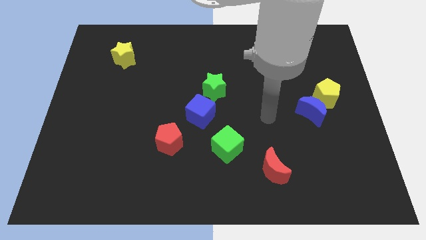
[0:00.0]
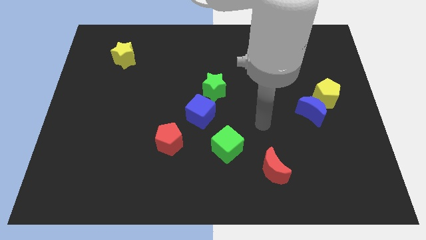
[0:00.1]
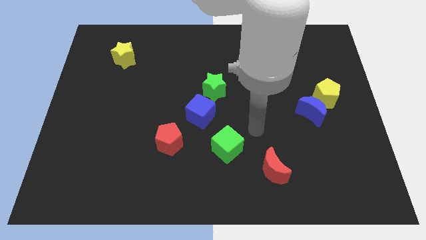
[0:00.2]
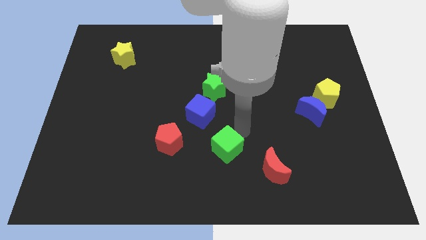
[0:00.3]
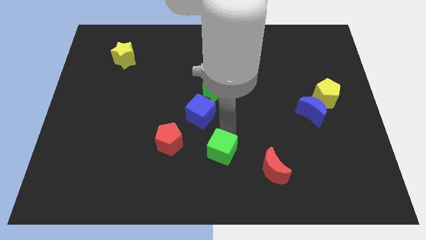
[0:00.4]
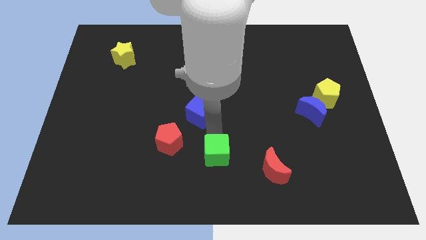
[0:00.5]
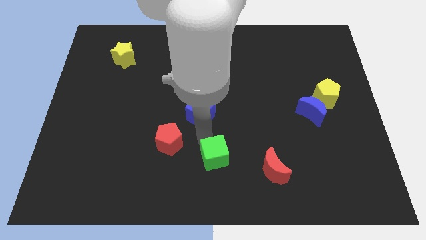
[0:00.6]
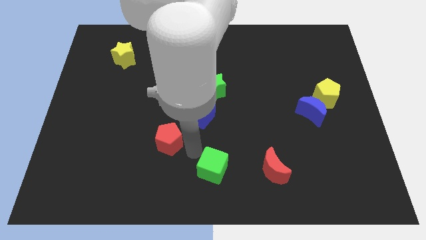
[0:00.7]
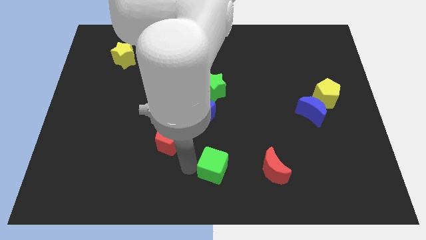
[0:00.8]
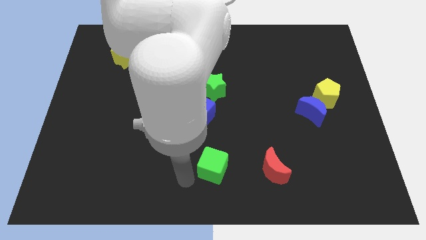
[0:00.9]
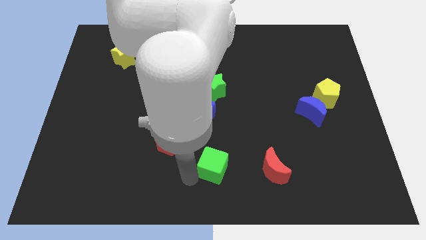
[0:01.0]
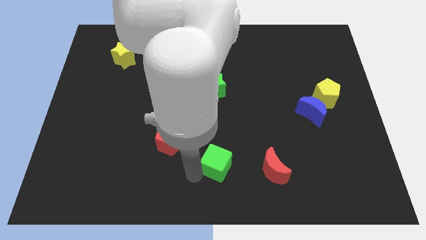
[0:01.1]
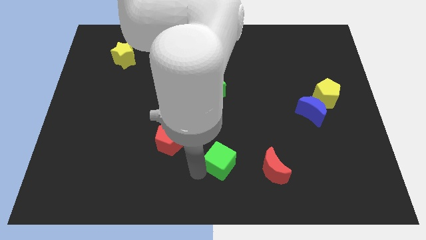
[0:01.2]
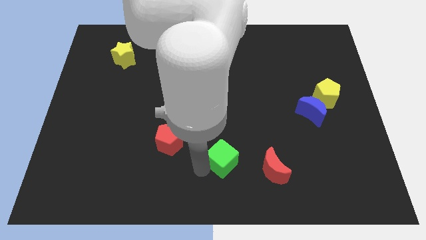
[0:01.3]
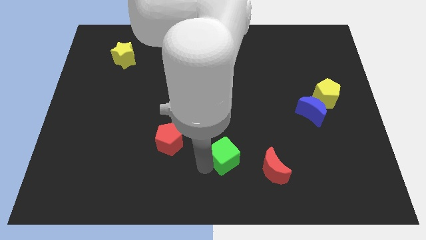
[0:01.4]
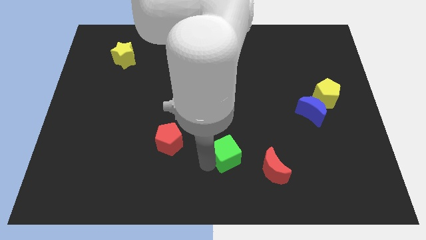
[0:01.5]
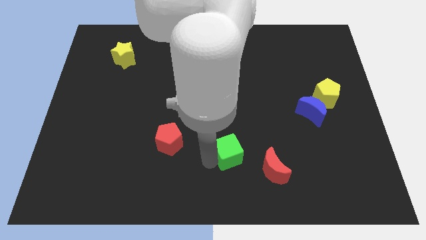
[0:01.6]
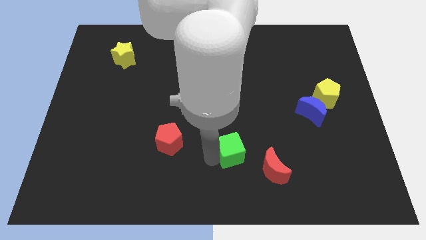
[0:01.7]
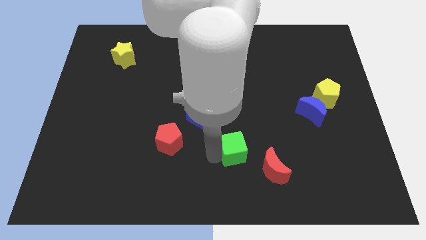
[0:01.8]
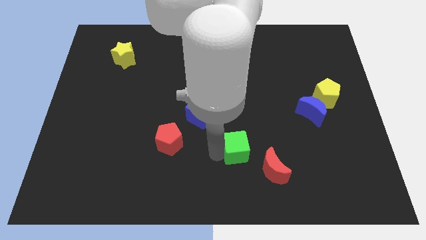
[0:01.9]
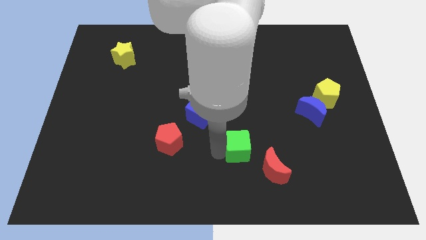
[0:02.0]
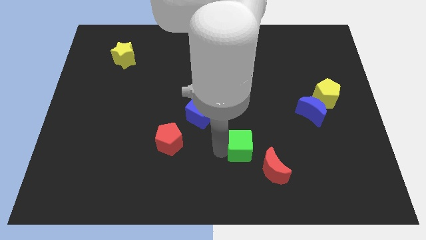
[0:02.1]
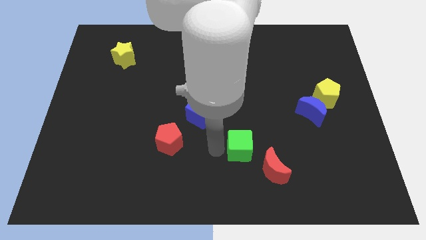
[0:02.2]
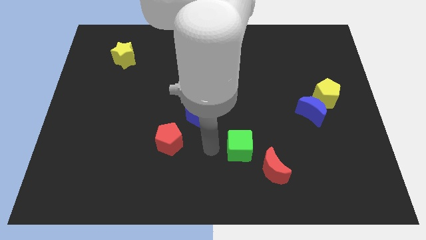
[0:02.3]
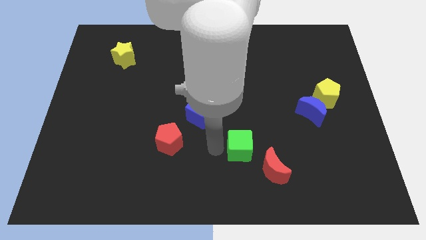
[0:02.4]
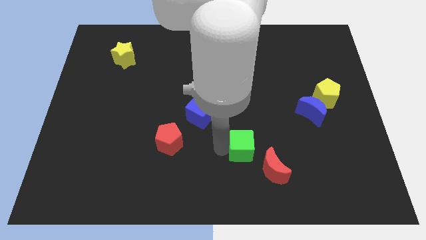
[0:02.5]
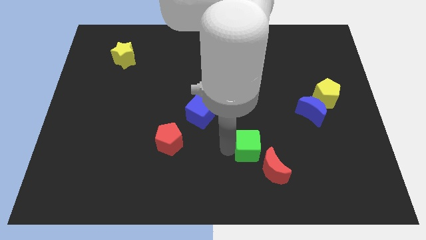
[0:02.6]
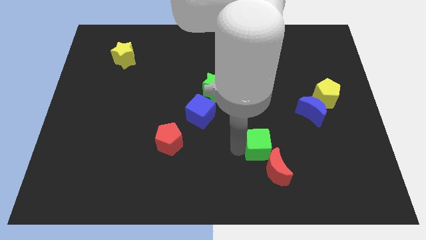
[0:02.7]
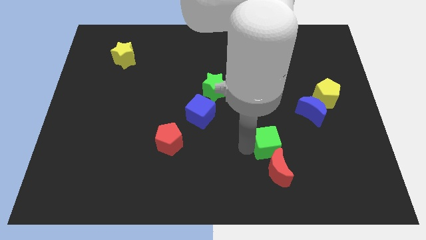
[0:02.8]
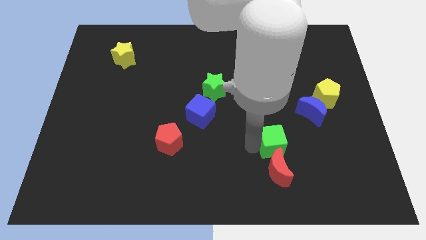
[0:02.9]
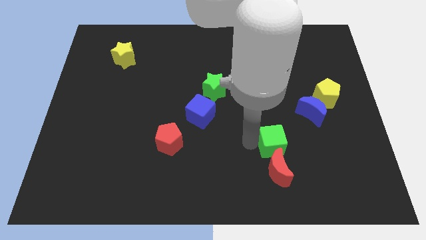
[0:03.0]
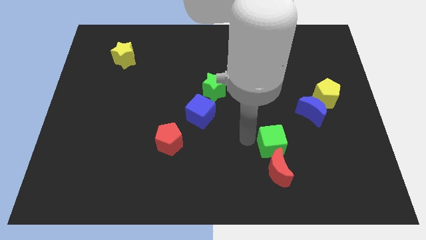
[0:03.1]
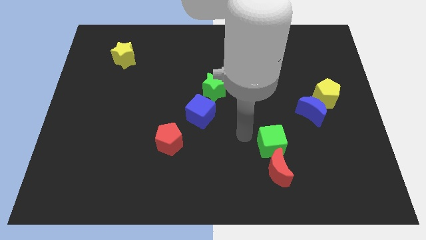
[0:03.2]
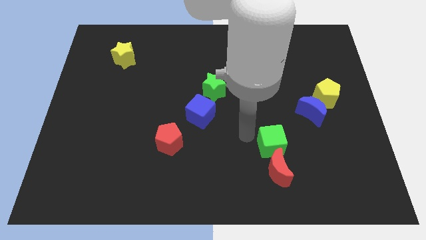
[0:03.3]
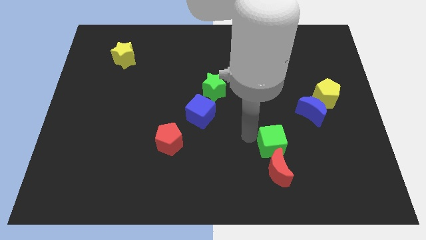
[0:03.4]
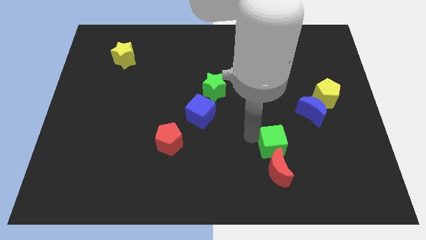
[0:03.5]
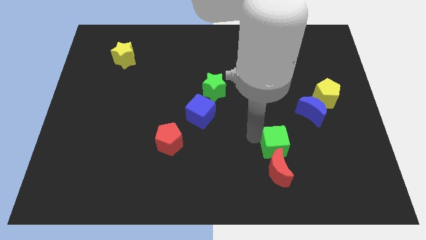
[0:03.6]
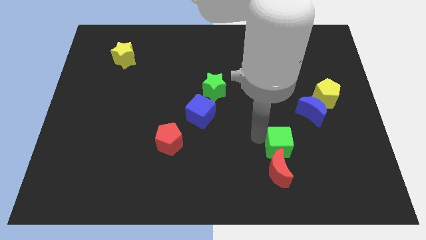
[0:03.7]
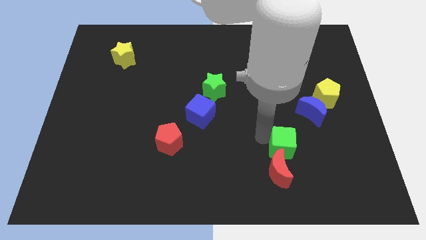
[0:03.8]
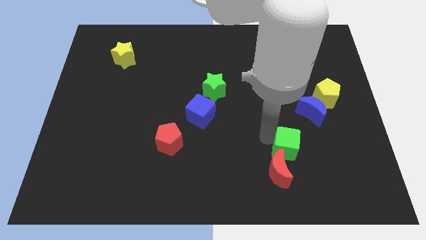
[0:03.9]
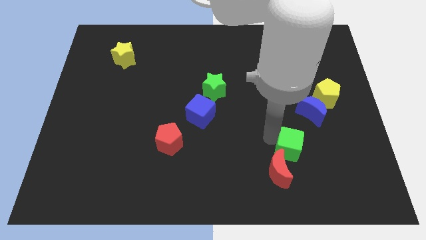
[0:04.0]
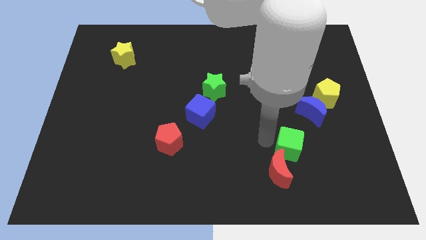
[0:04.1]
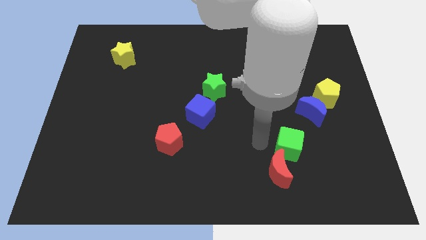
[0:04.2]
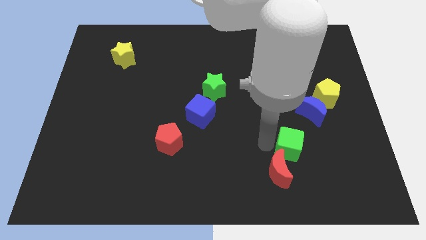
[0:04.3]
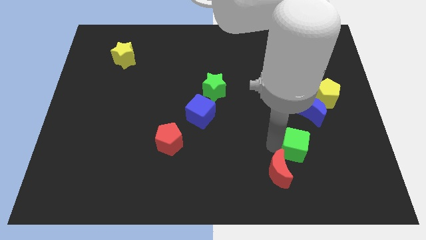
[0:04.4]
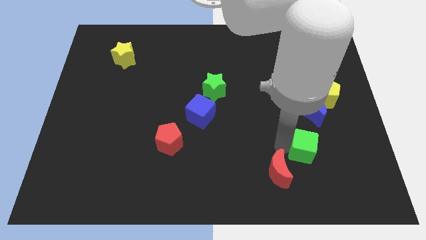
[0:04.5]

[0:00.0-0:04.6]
move the green cube to the bottom side of the blue moon

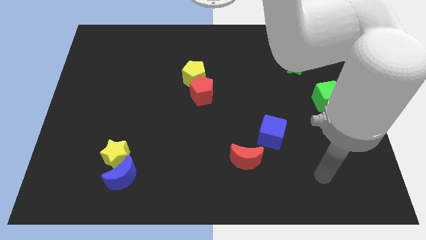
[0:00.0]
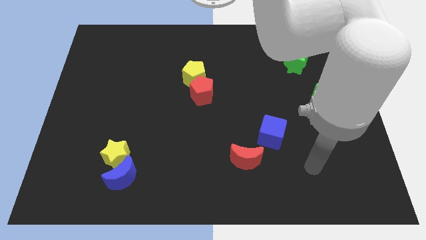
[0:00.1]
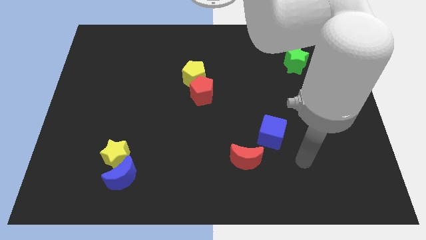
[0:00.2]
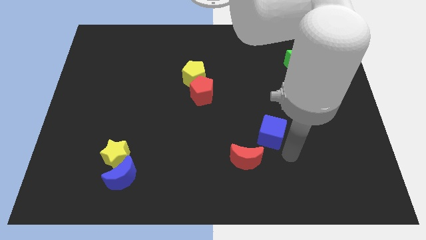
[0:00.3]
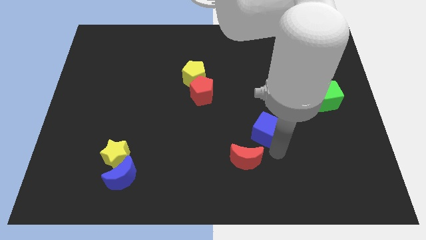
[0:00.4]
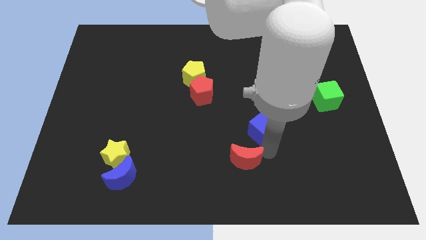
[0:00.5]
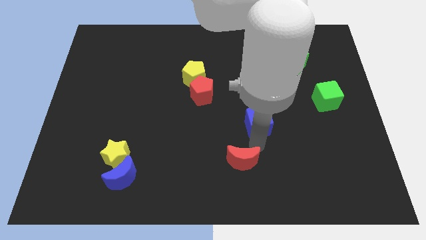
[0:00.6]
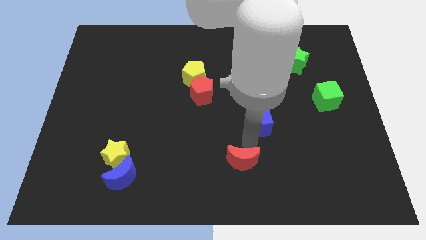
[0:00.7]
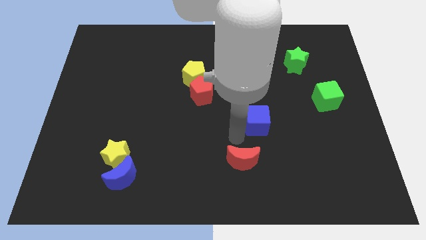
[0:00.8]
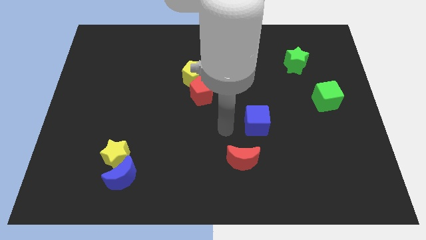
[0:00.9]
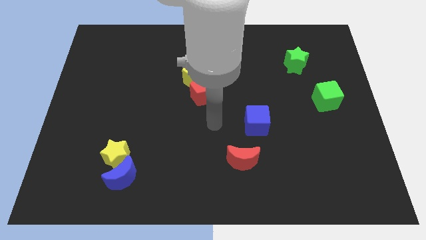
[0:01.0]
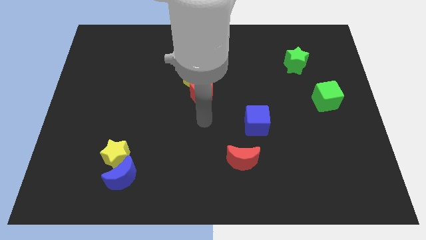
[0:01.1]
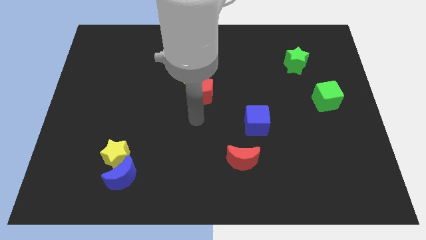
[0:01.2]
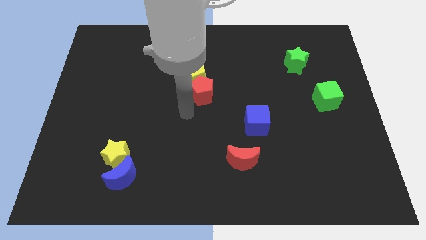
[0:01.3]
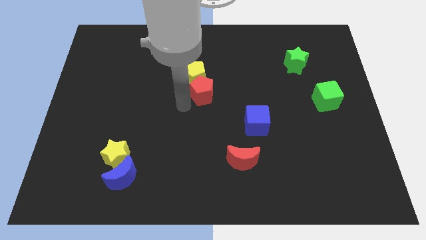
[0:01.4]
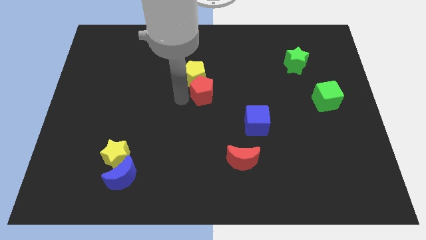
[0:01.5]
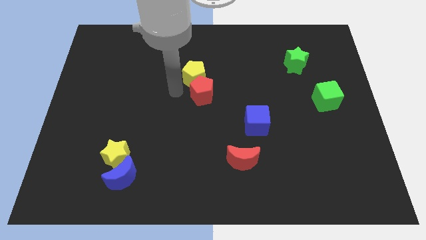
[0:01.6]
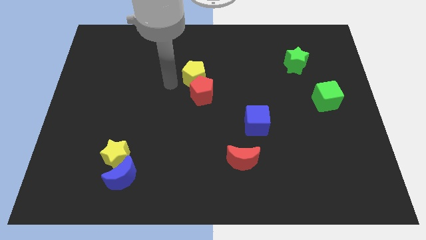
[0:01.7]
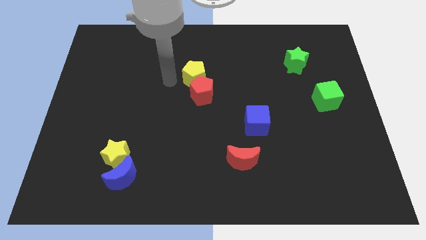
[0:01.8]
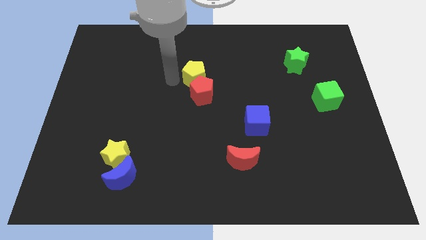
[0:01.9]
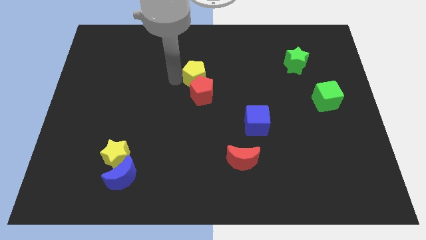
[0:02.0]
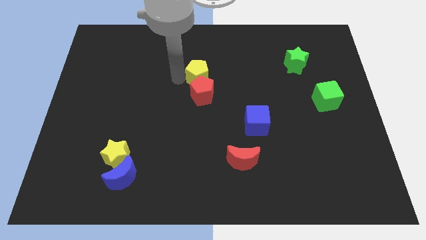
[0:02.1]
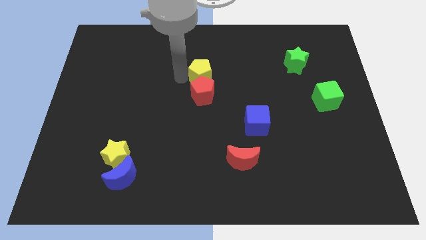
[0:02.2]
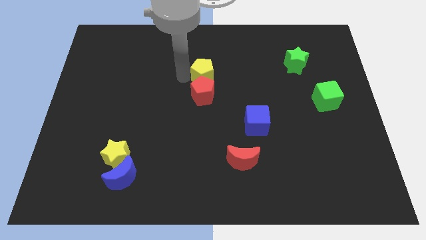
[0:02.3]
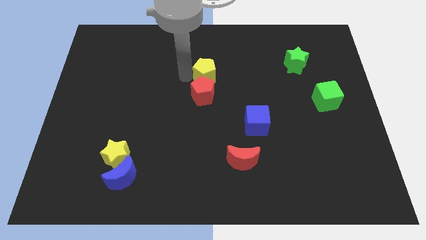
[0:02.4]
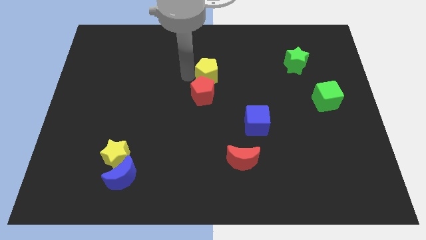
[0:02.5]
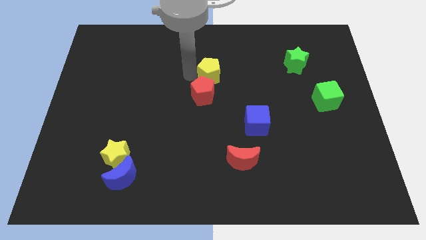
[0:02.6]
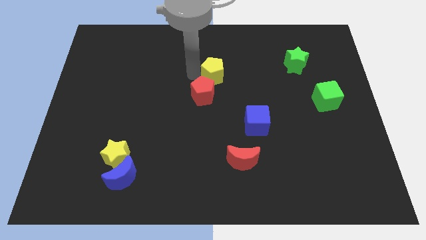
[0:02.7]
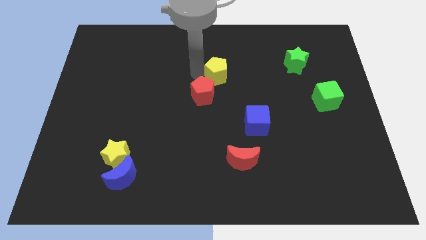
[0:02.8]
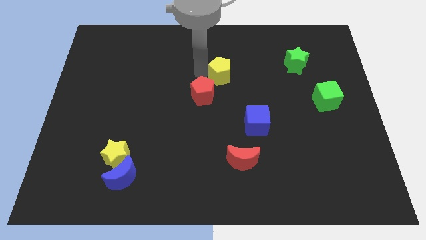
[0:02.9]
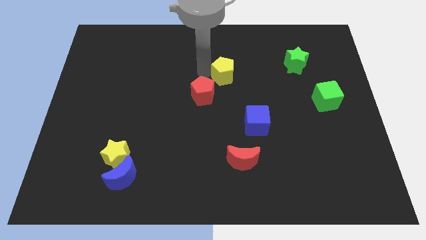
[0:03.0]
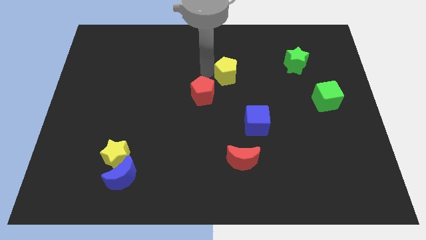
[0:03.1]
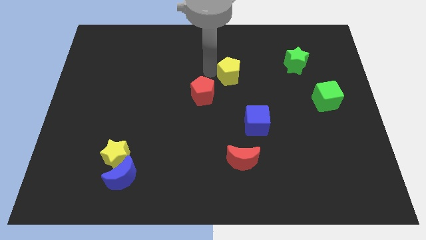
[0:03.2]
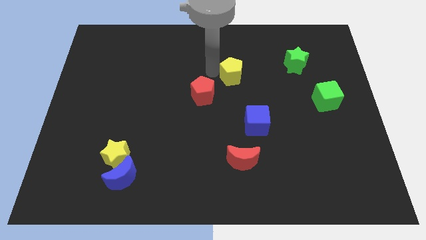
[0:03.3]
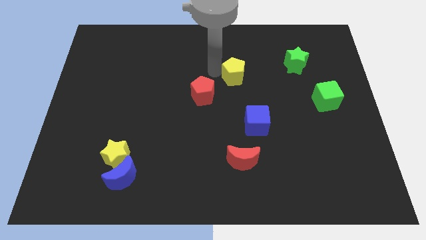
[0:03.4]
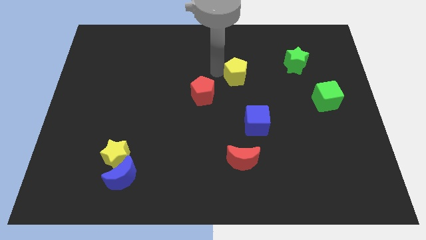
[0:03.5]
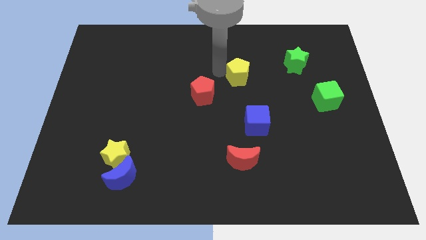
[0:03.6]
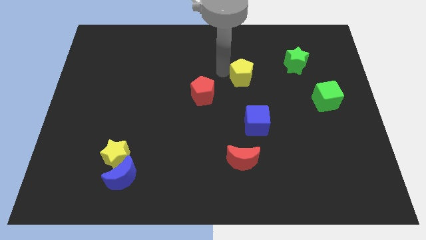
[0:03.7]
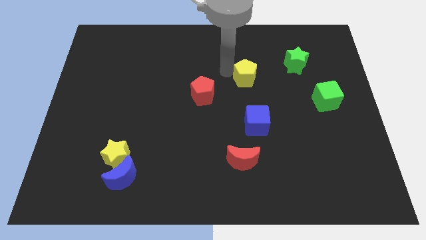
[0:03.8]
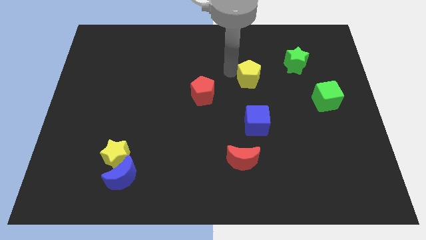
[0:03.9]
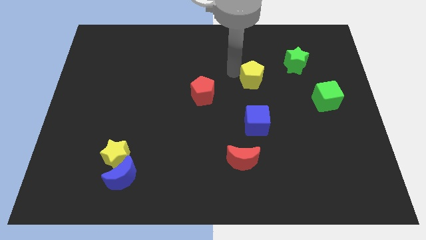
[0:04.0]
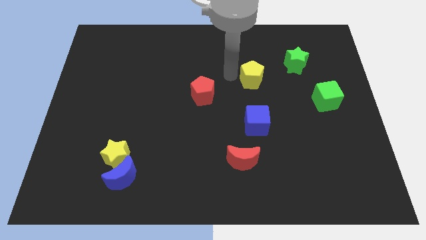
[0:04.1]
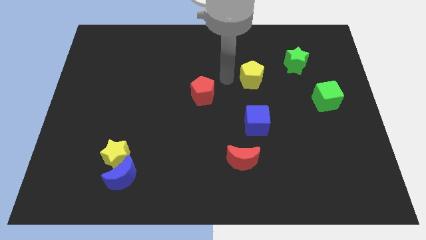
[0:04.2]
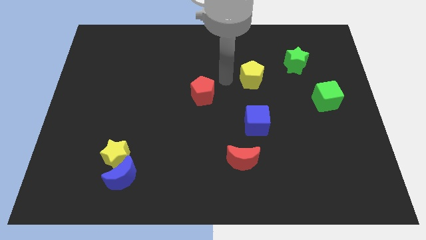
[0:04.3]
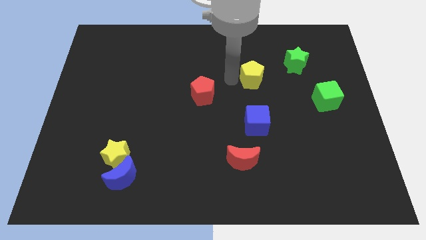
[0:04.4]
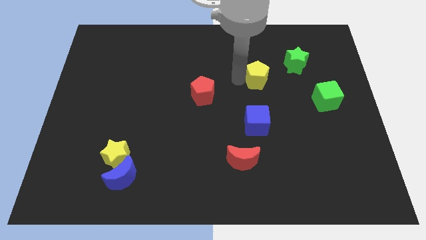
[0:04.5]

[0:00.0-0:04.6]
push the yellow pentagon diagonally down and to the left of the green star
